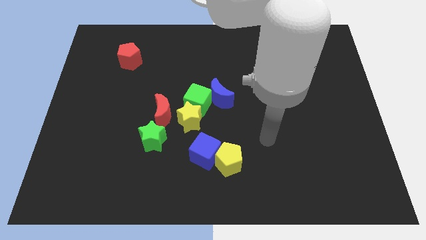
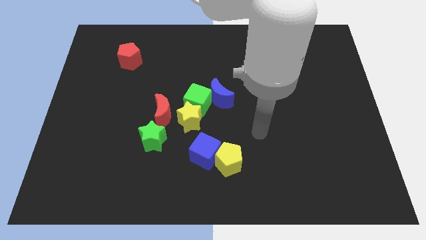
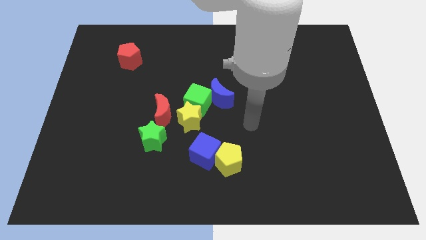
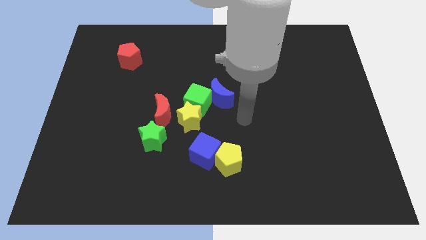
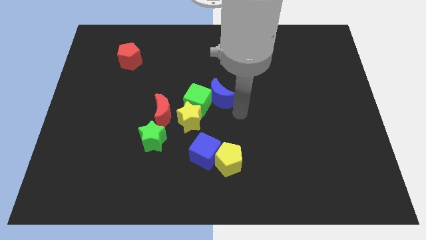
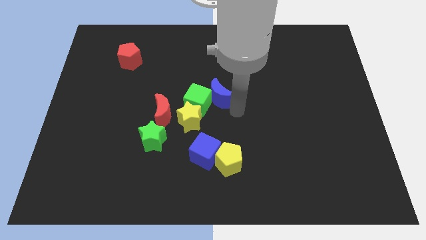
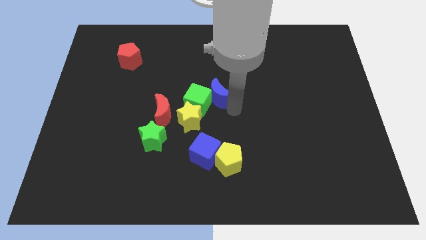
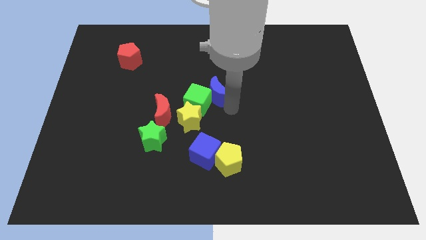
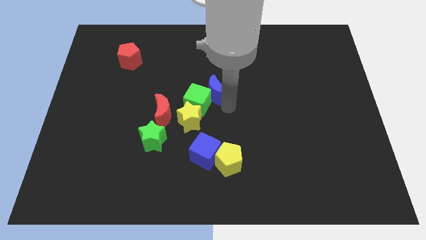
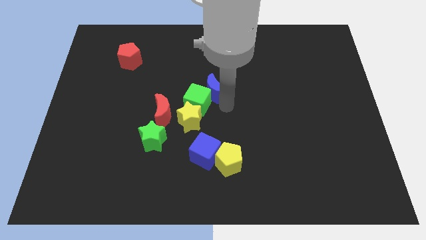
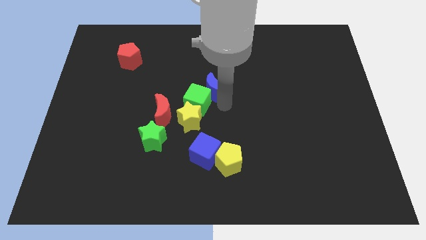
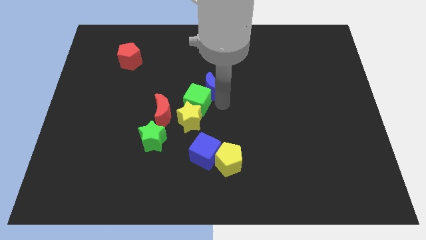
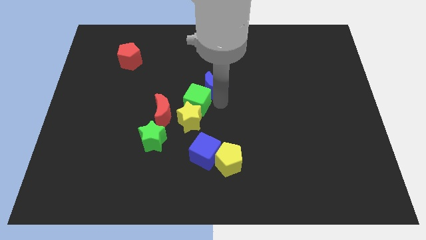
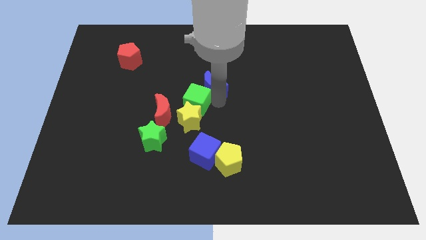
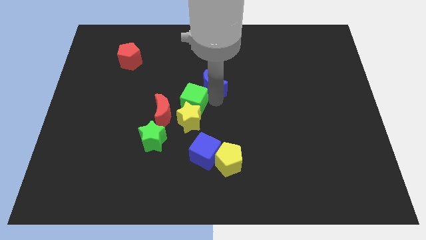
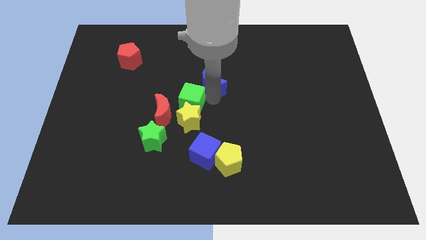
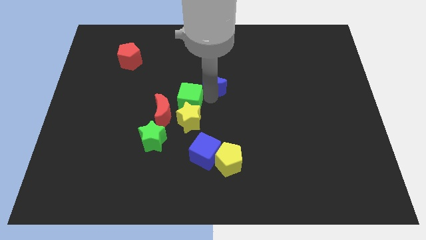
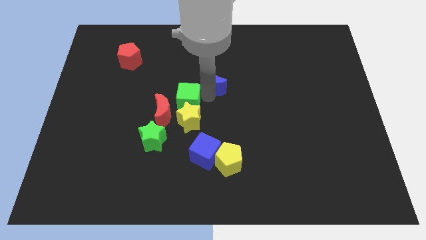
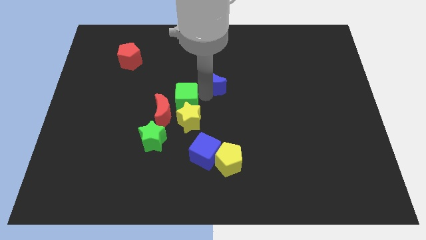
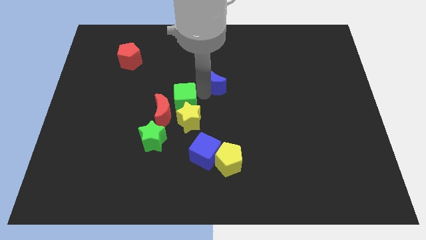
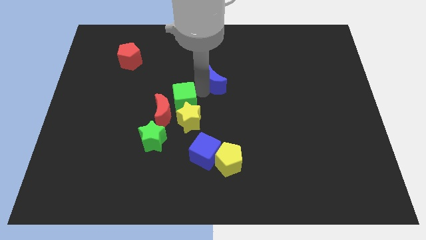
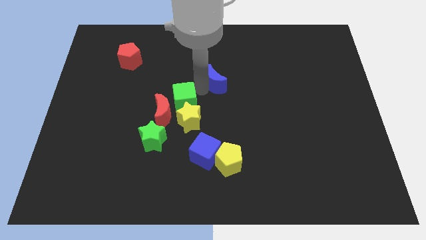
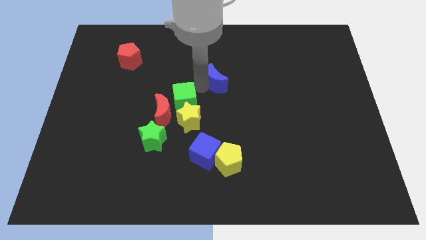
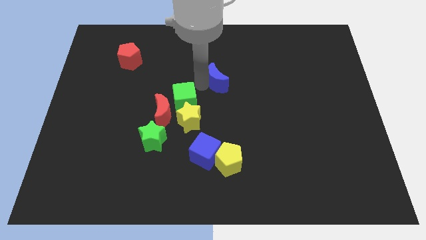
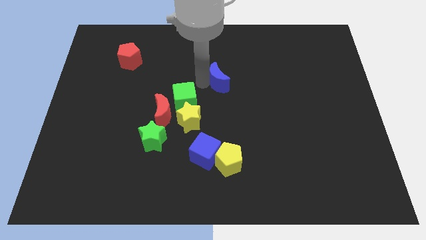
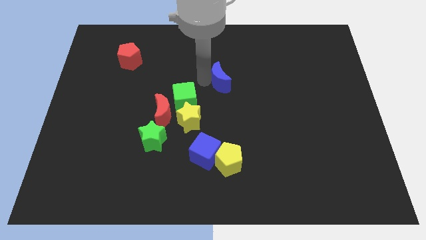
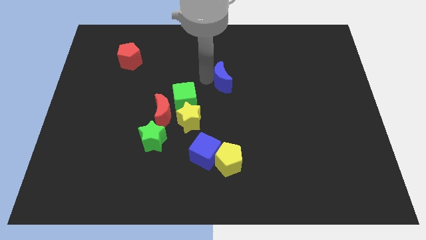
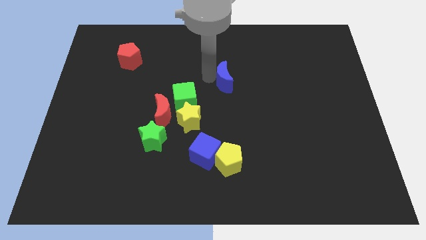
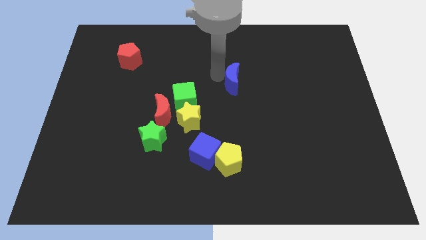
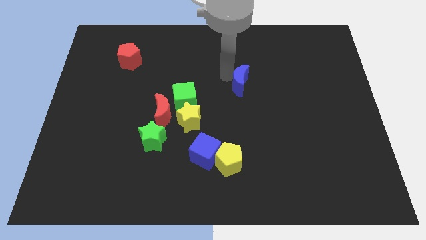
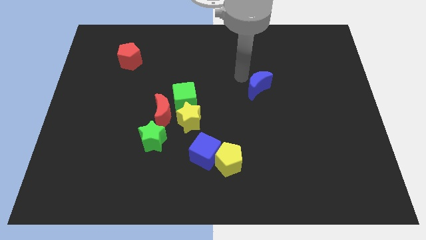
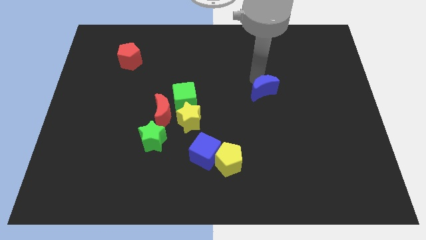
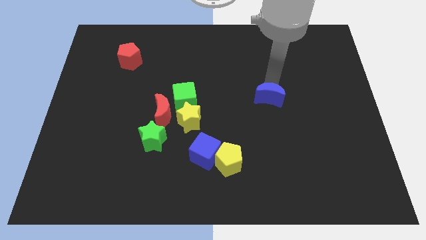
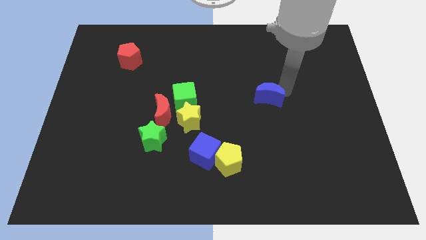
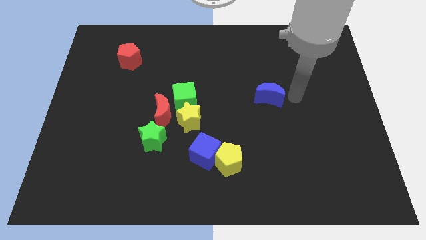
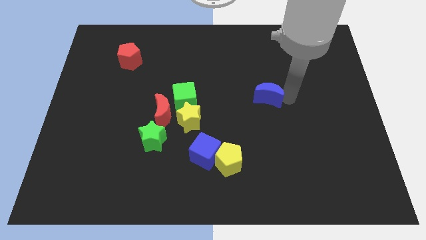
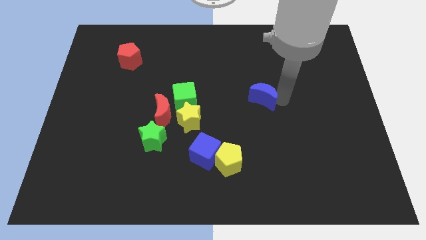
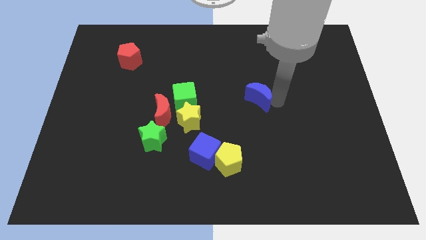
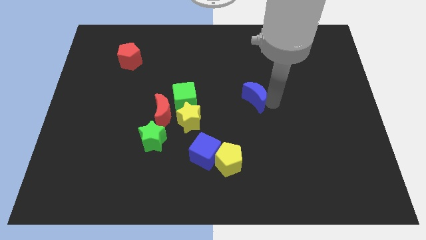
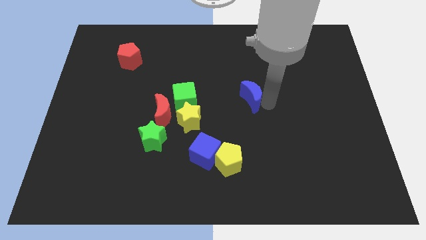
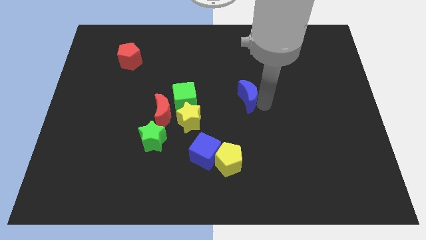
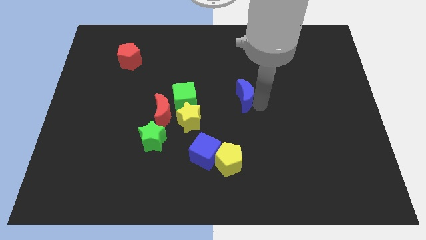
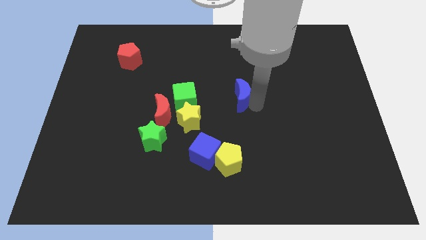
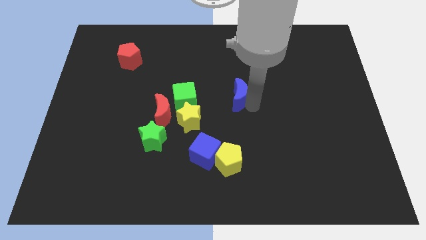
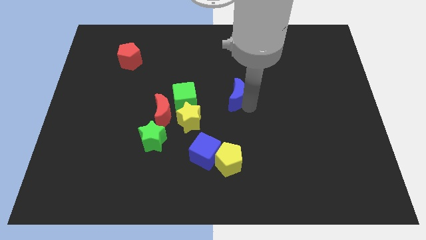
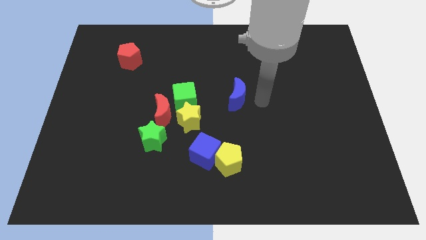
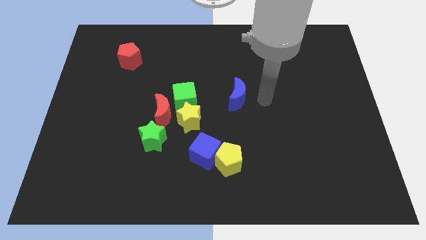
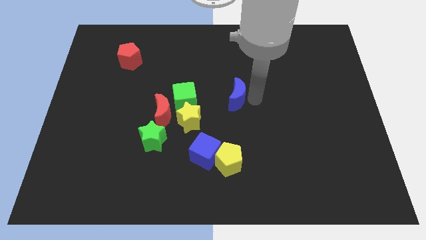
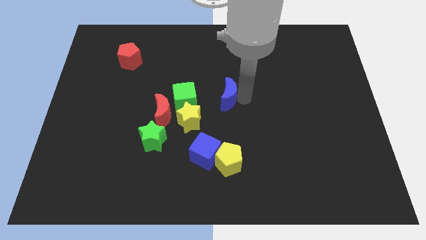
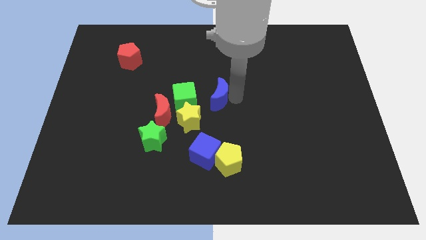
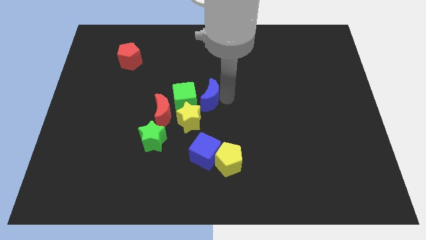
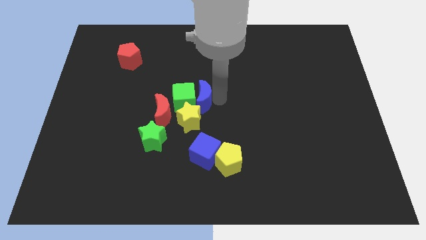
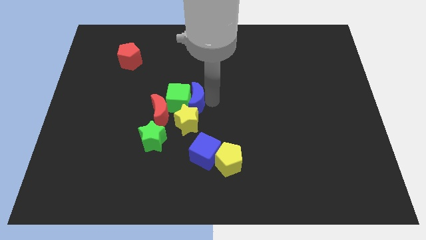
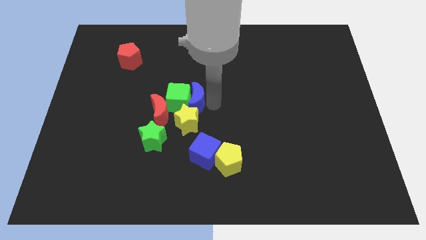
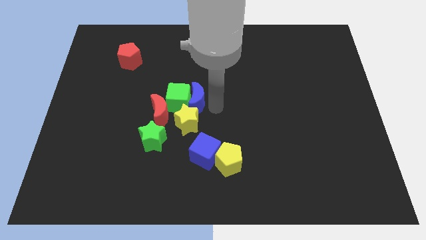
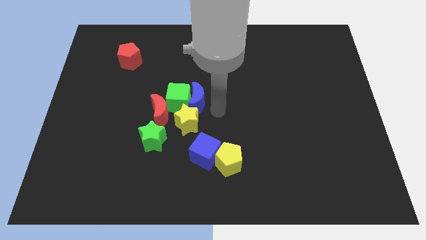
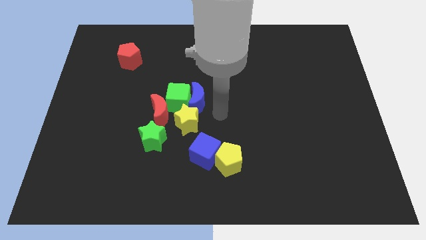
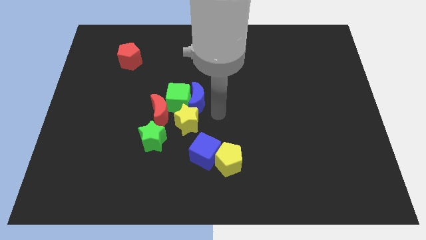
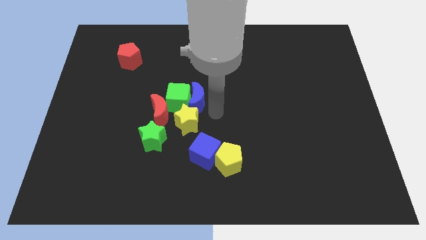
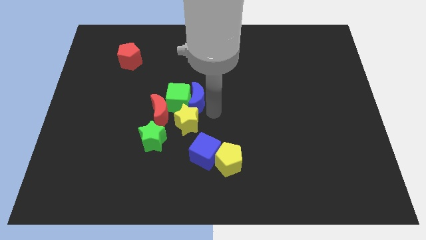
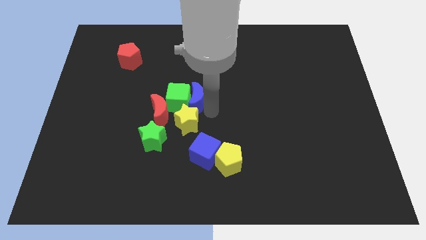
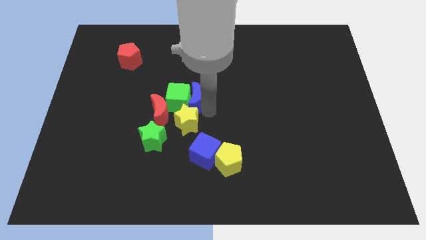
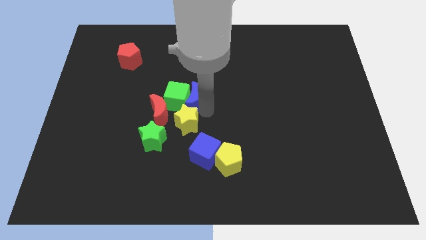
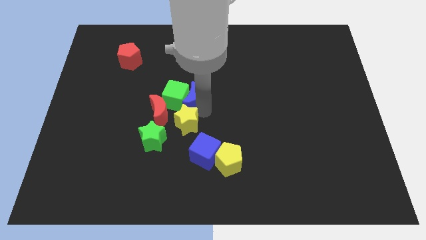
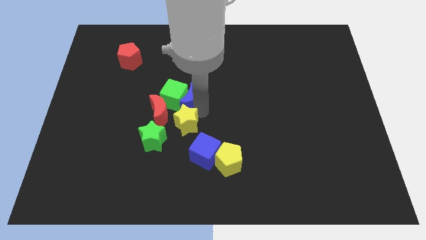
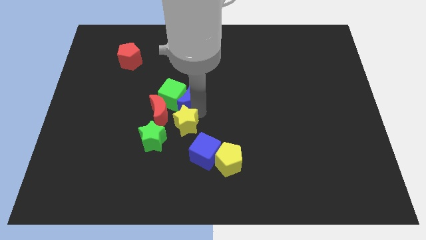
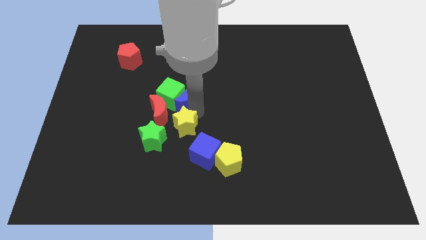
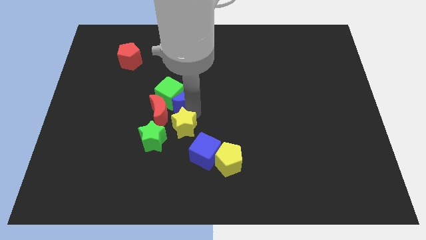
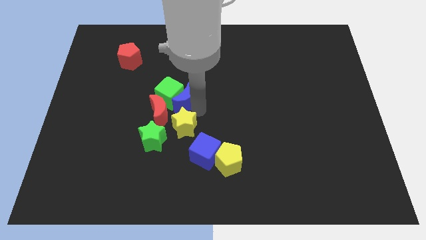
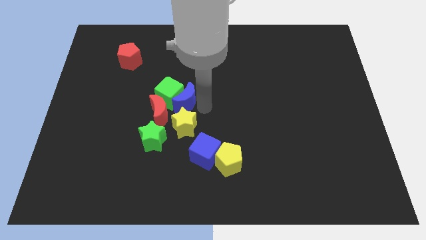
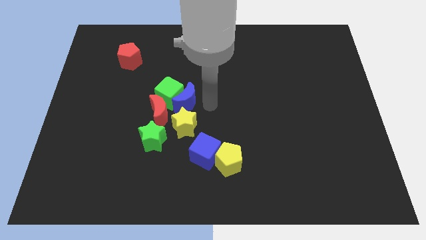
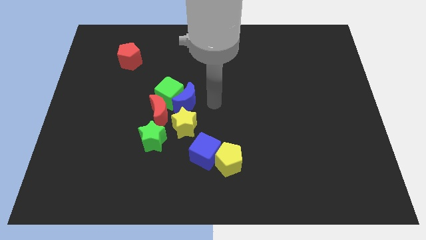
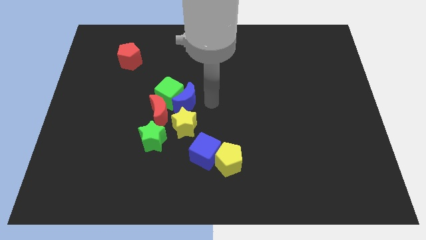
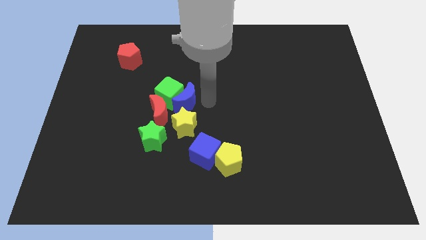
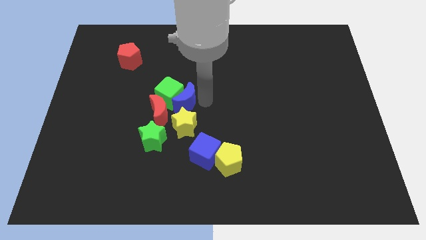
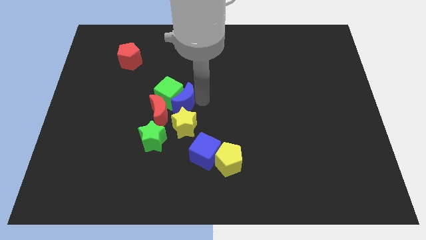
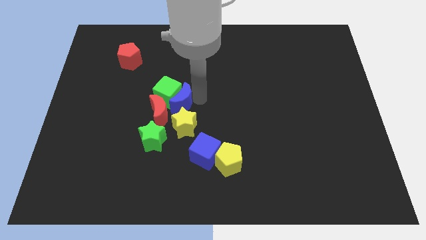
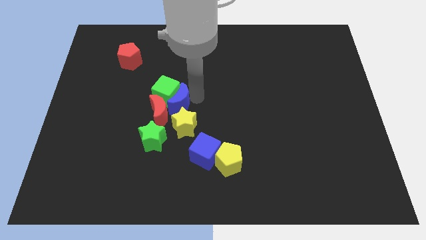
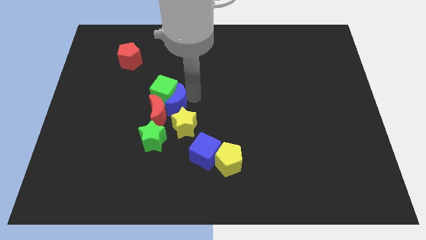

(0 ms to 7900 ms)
push the blue moon above the green star

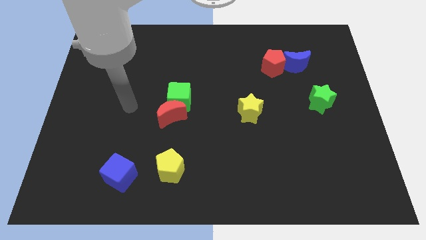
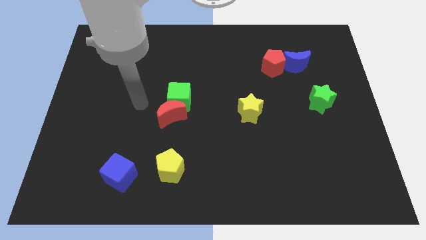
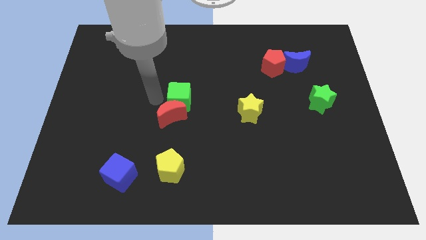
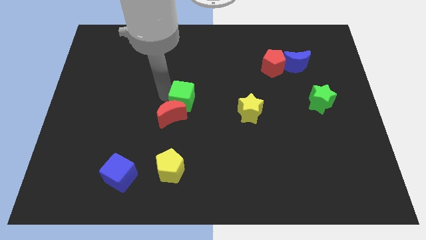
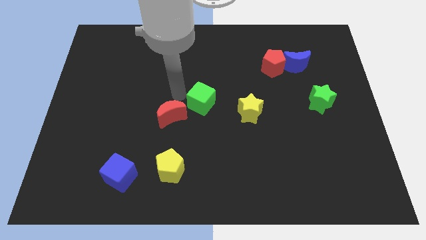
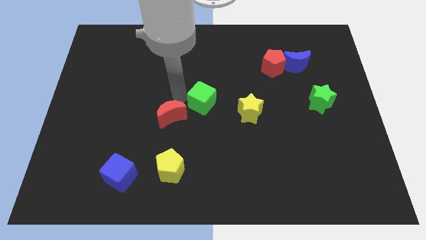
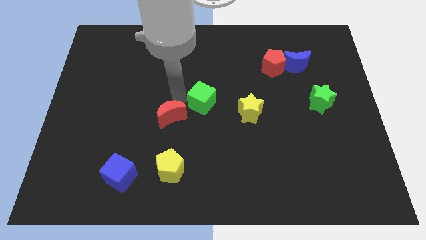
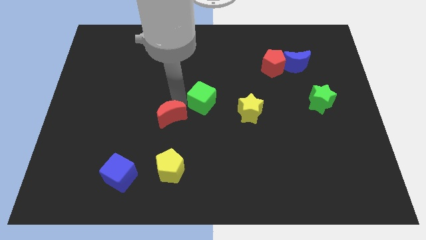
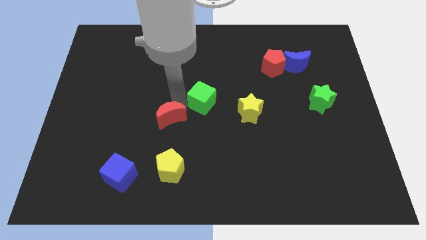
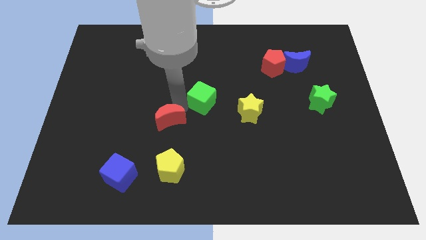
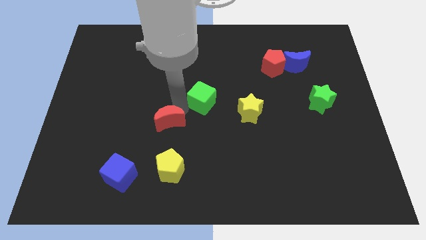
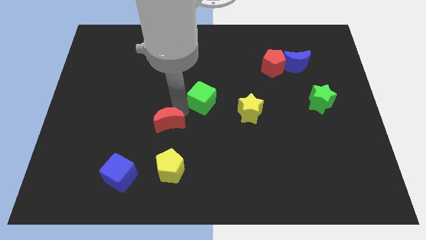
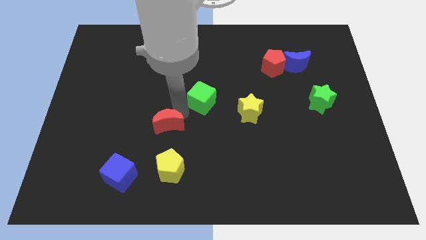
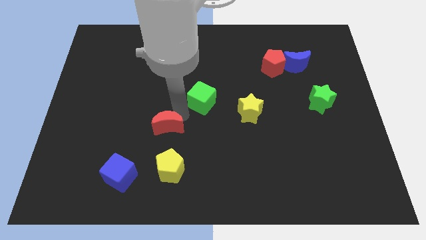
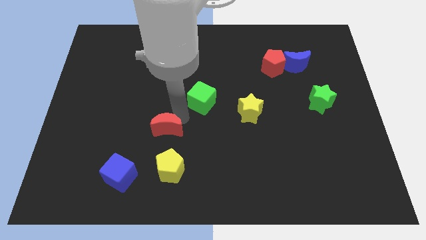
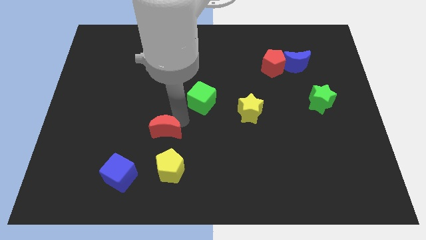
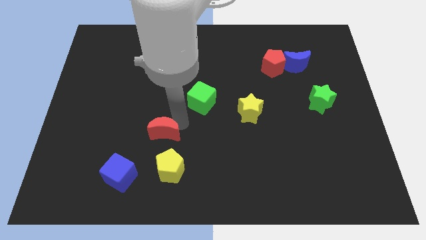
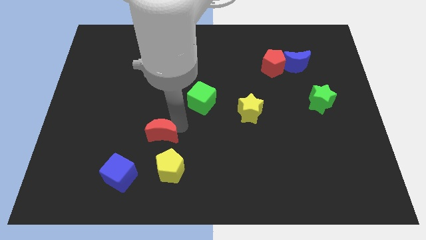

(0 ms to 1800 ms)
slide the red moon diagonally up and to the left of the yellow pentagon
